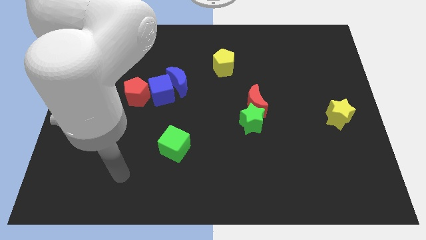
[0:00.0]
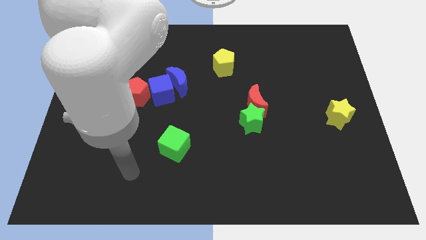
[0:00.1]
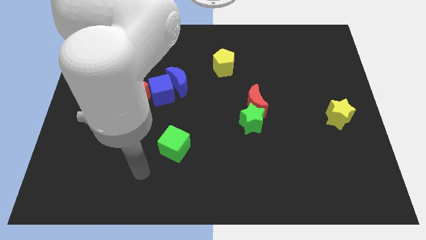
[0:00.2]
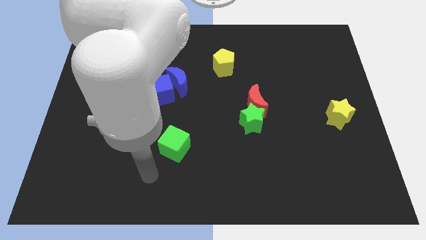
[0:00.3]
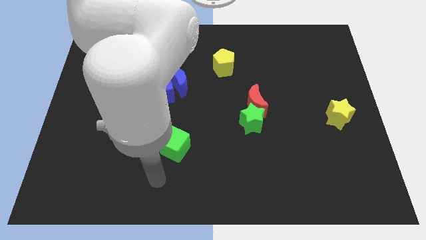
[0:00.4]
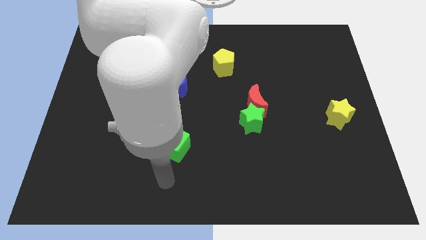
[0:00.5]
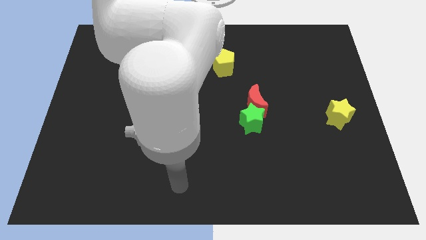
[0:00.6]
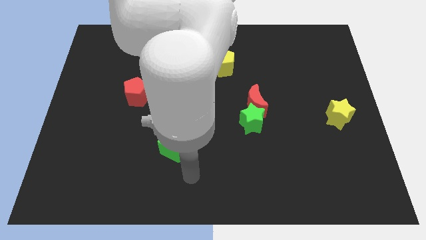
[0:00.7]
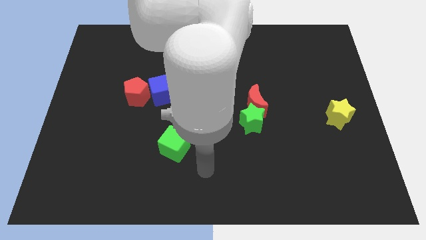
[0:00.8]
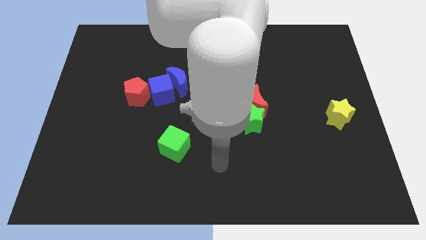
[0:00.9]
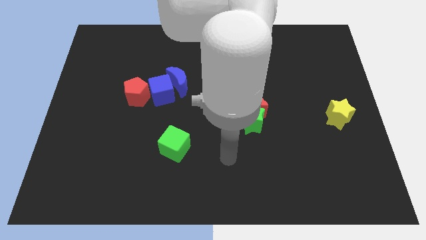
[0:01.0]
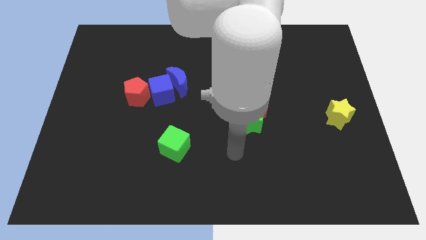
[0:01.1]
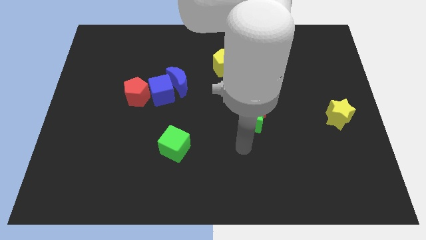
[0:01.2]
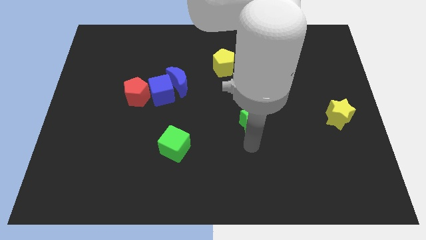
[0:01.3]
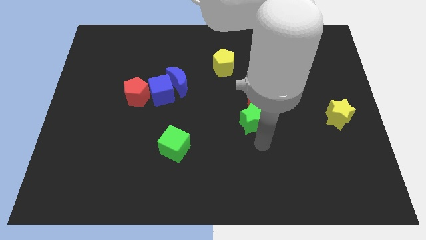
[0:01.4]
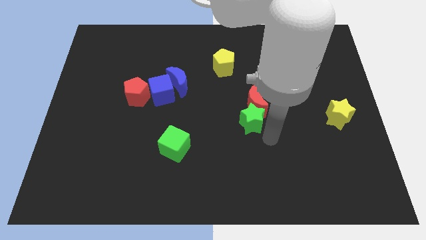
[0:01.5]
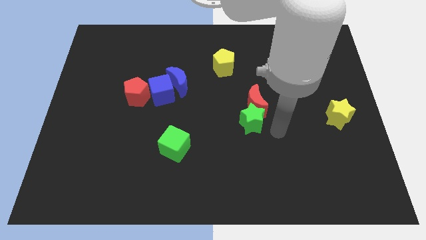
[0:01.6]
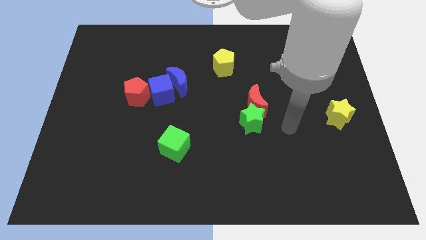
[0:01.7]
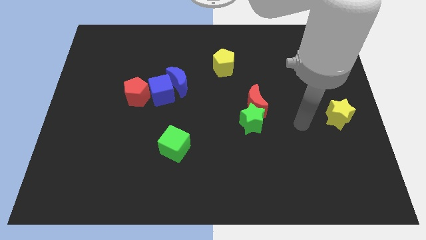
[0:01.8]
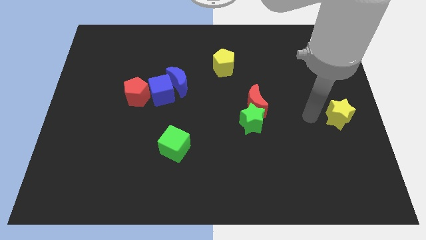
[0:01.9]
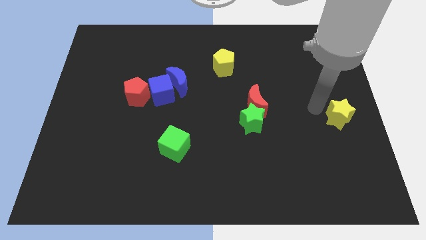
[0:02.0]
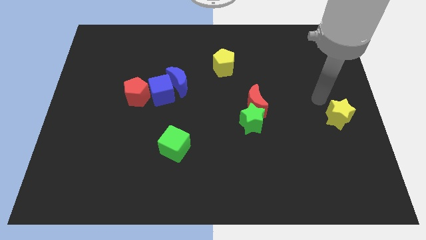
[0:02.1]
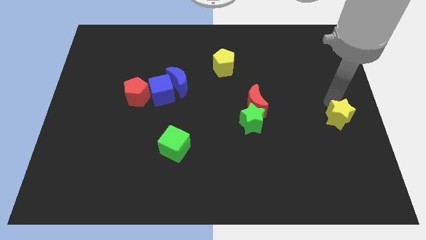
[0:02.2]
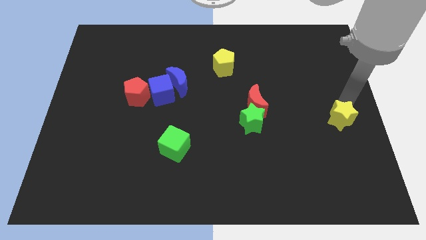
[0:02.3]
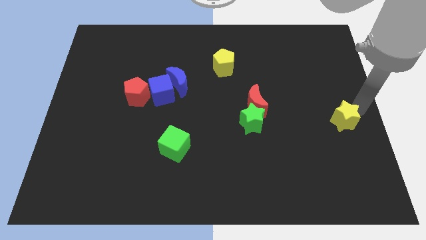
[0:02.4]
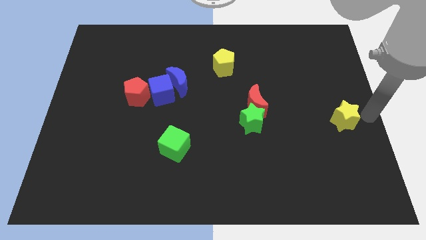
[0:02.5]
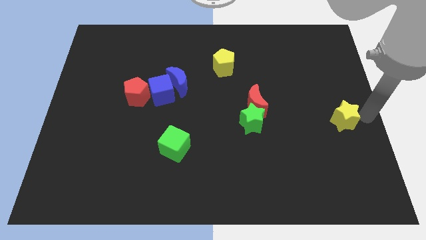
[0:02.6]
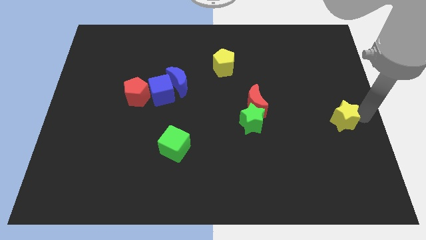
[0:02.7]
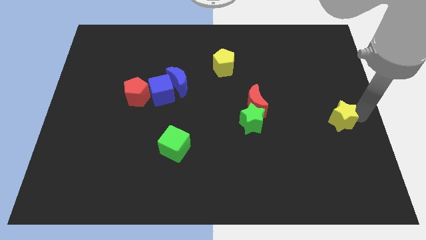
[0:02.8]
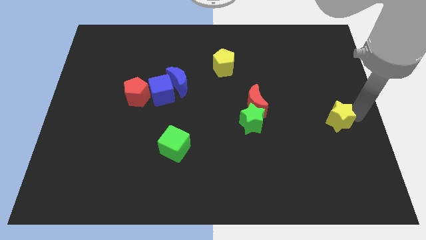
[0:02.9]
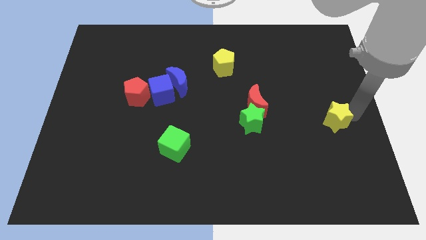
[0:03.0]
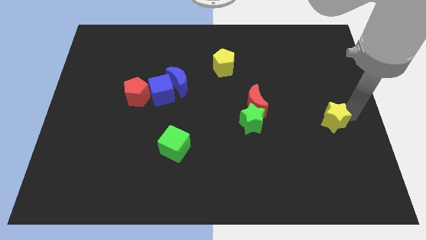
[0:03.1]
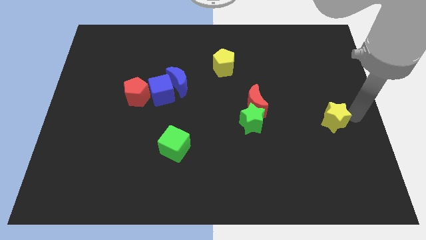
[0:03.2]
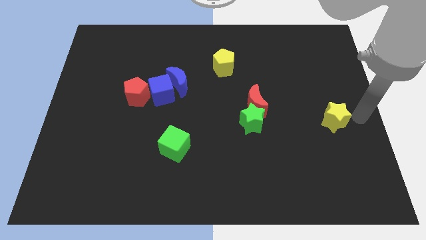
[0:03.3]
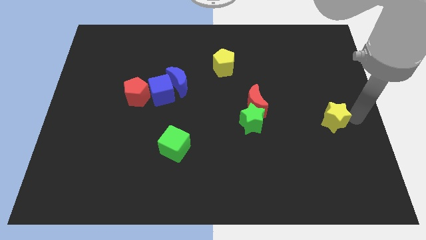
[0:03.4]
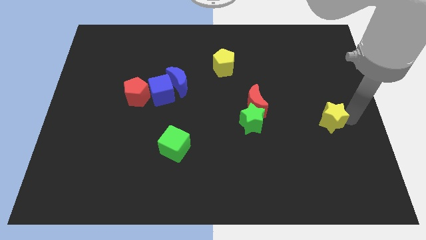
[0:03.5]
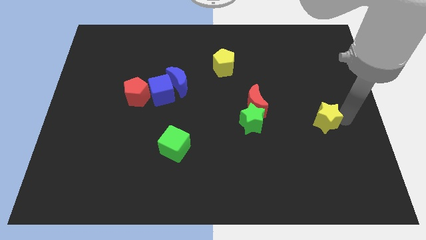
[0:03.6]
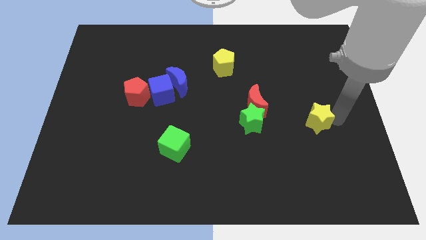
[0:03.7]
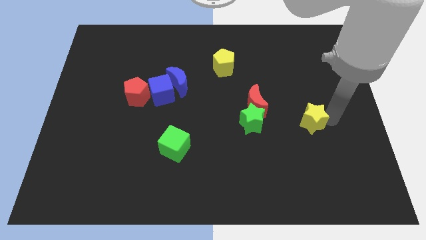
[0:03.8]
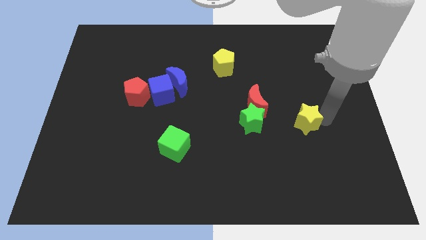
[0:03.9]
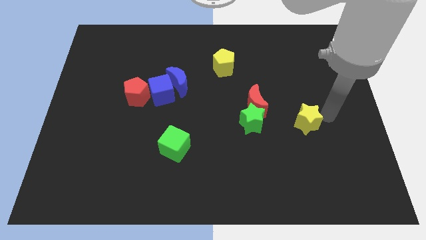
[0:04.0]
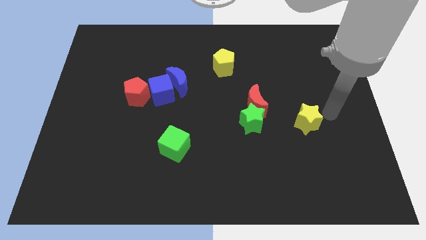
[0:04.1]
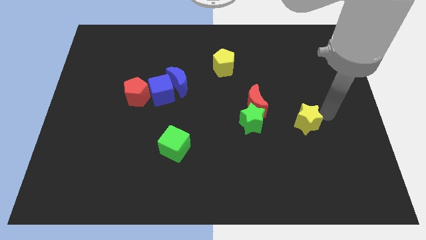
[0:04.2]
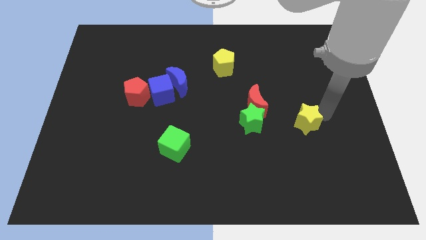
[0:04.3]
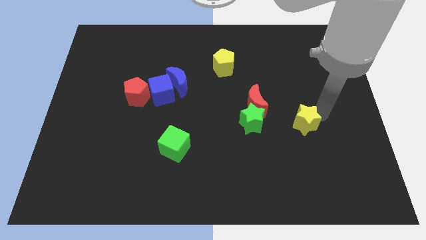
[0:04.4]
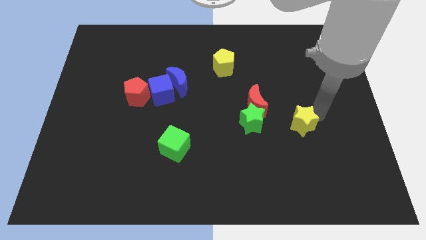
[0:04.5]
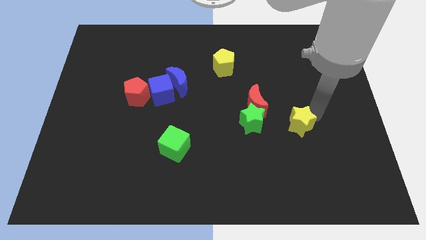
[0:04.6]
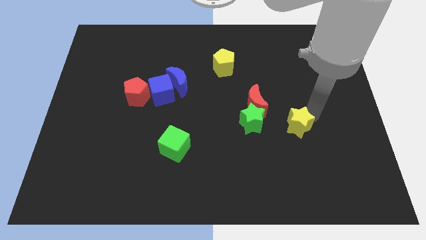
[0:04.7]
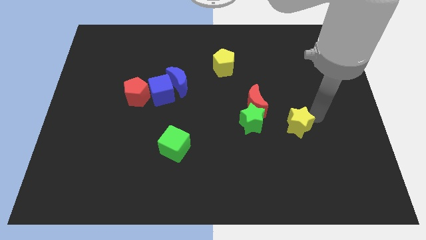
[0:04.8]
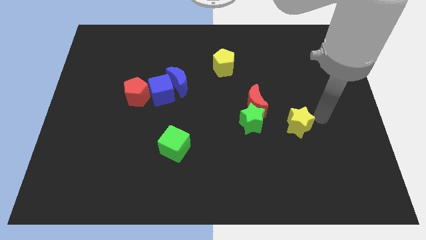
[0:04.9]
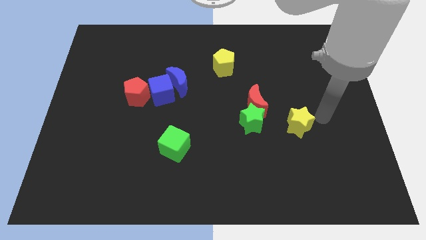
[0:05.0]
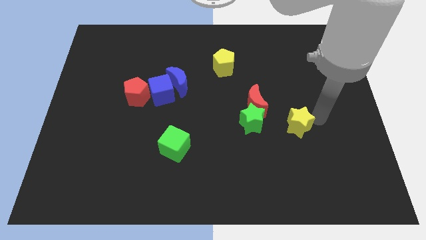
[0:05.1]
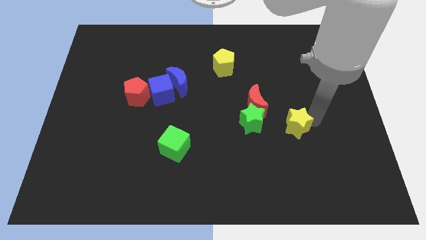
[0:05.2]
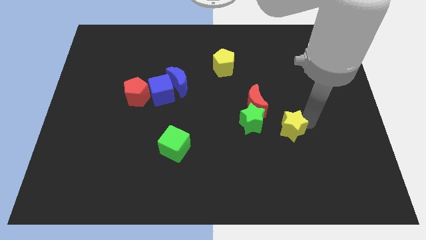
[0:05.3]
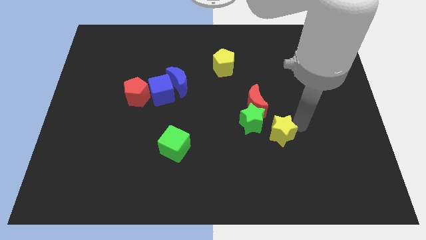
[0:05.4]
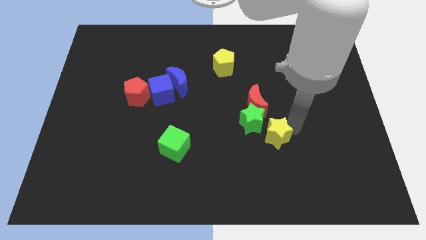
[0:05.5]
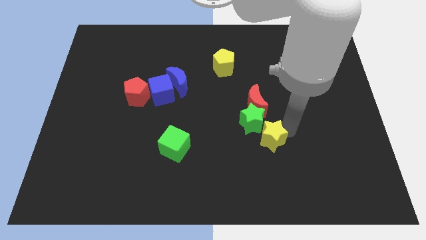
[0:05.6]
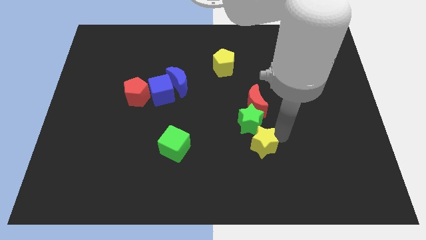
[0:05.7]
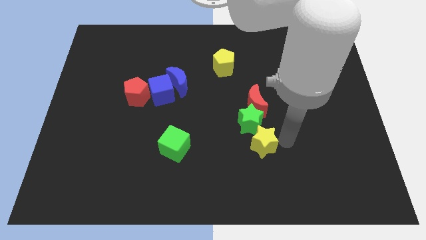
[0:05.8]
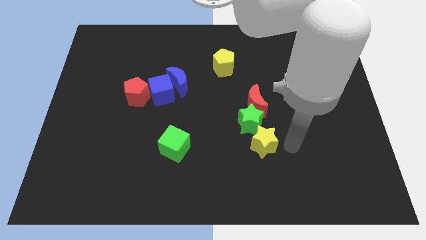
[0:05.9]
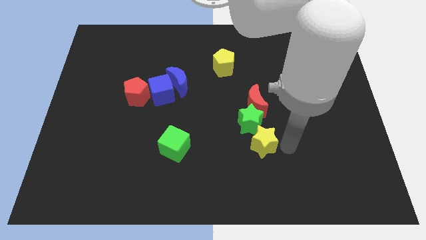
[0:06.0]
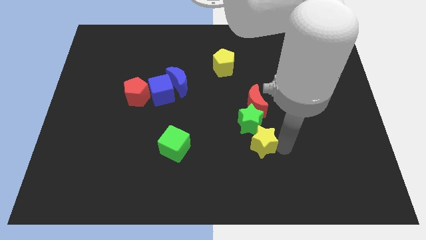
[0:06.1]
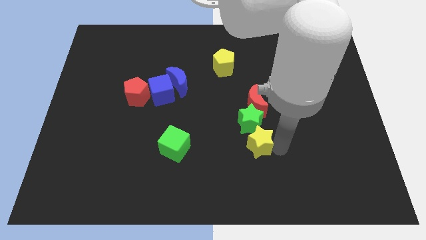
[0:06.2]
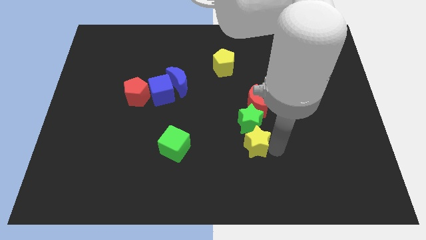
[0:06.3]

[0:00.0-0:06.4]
move the yellow star to the bottom left side of the green star
